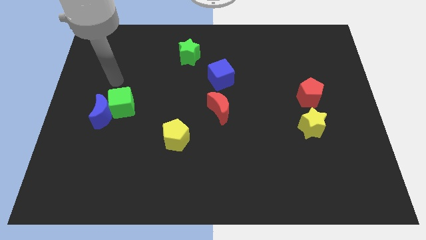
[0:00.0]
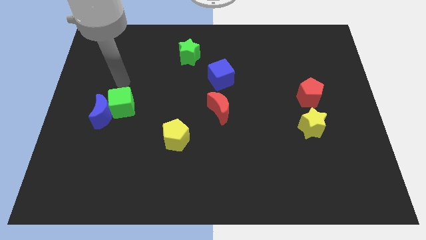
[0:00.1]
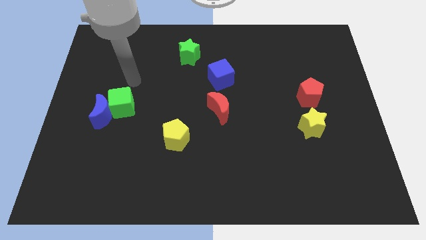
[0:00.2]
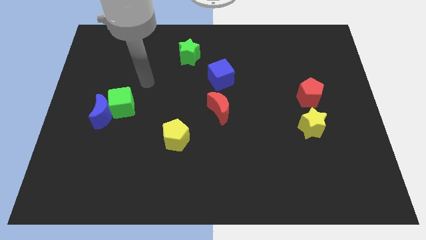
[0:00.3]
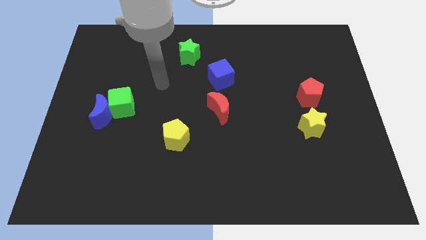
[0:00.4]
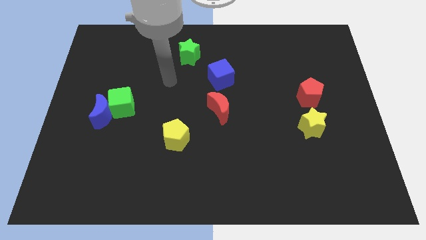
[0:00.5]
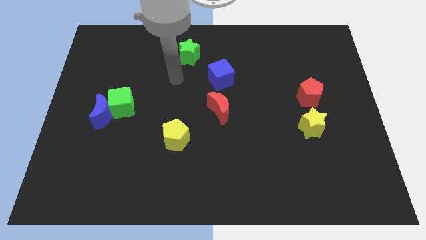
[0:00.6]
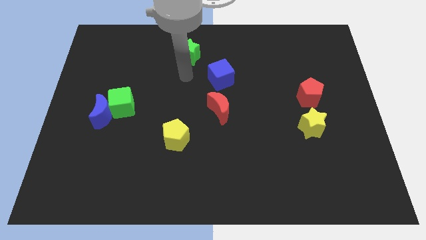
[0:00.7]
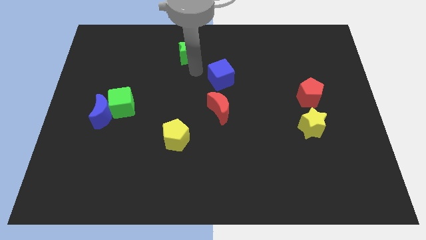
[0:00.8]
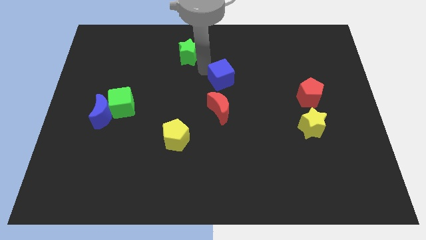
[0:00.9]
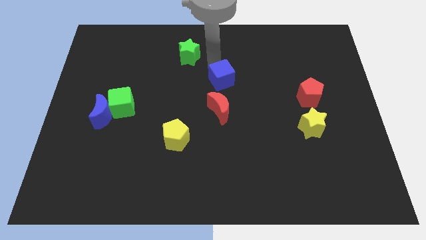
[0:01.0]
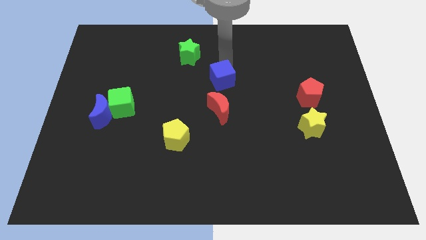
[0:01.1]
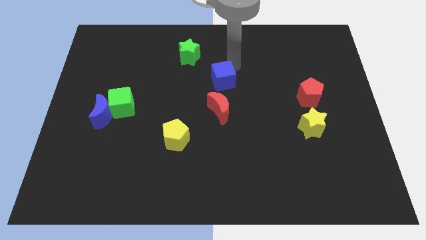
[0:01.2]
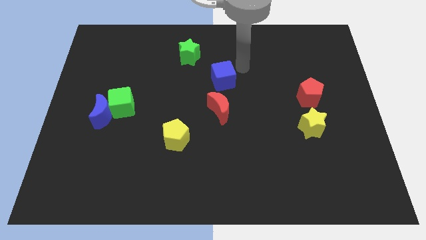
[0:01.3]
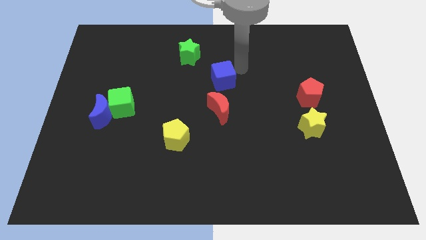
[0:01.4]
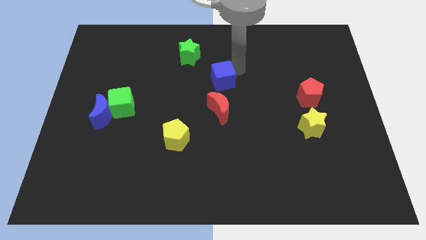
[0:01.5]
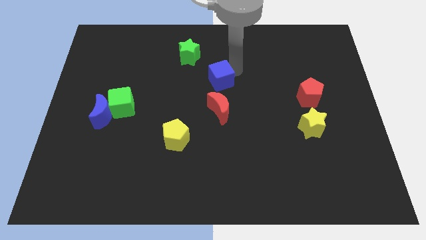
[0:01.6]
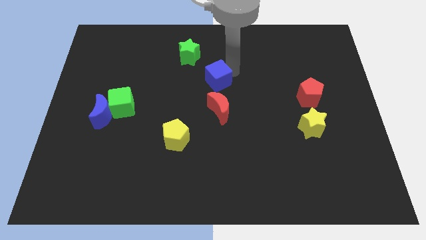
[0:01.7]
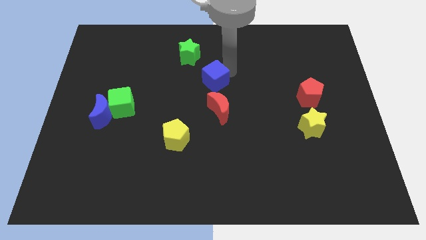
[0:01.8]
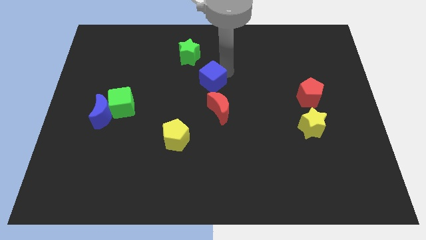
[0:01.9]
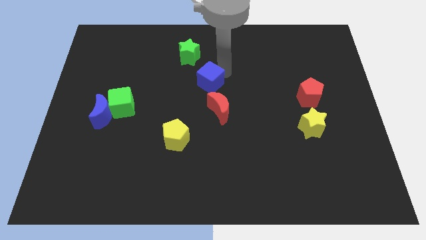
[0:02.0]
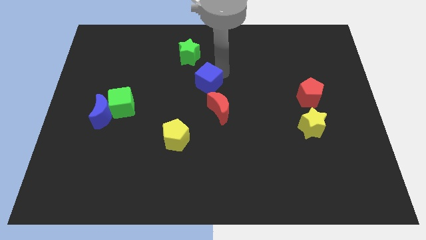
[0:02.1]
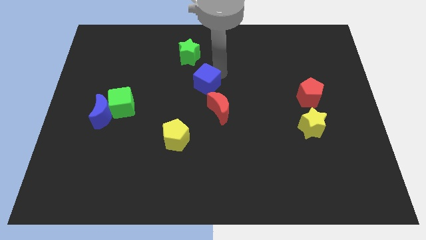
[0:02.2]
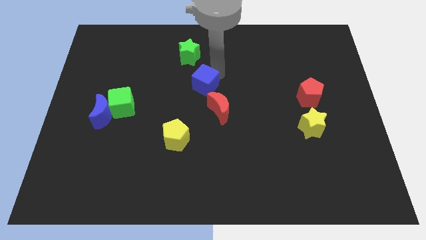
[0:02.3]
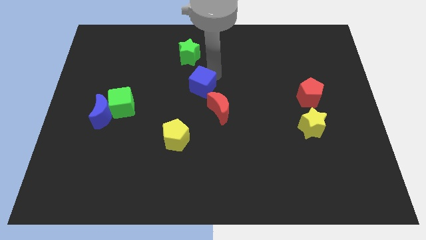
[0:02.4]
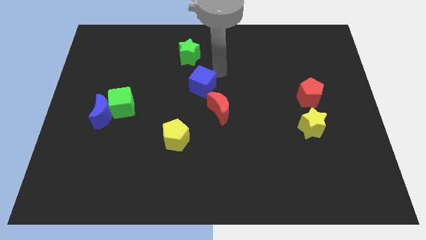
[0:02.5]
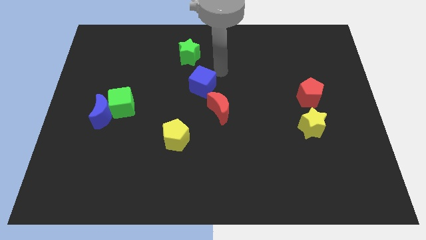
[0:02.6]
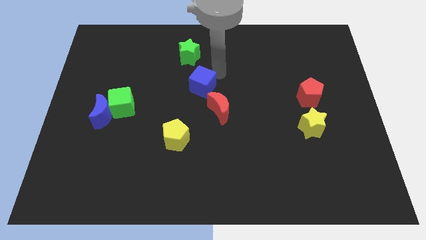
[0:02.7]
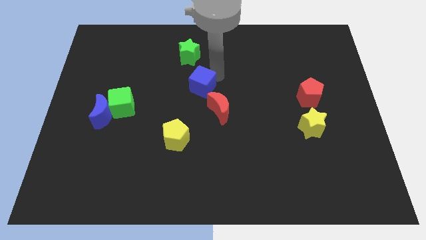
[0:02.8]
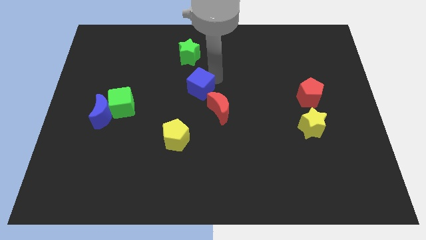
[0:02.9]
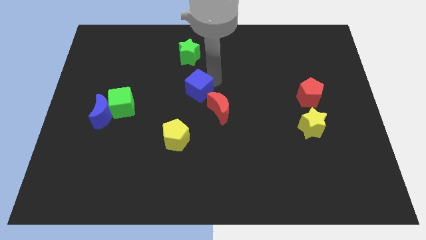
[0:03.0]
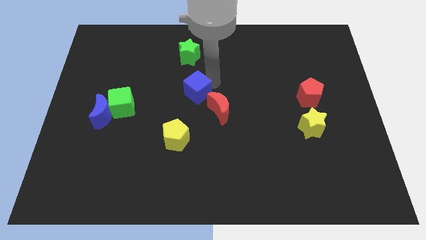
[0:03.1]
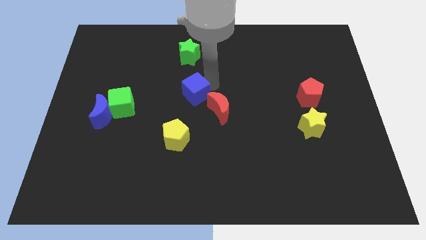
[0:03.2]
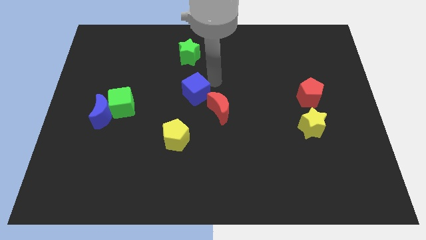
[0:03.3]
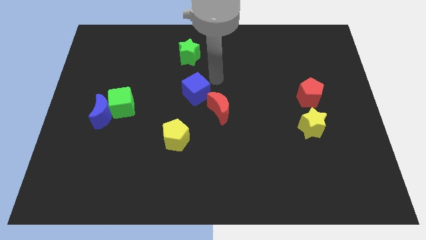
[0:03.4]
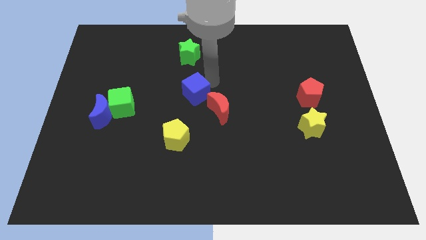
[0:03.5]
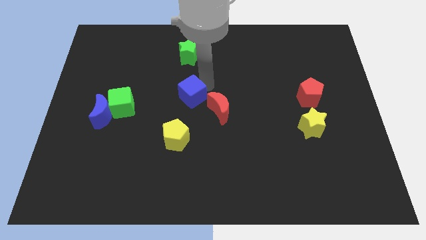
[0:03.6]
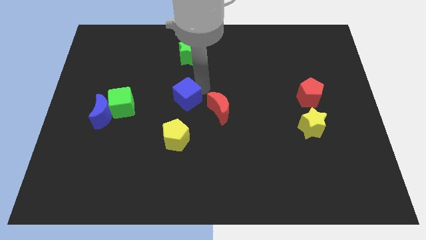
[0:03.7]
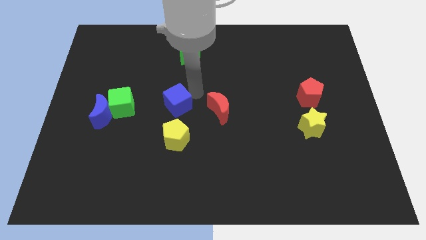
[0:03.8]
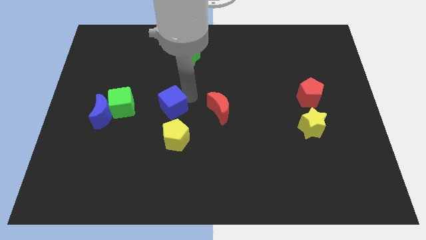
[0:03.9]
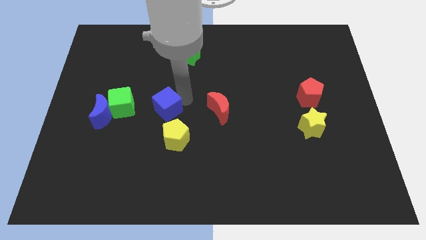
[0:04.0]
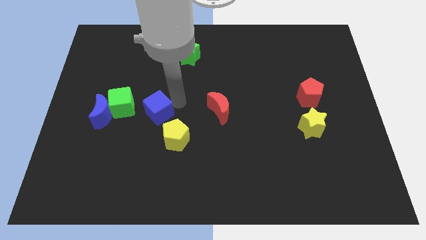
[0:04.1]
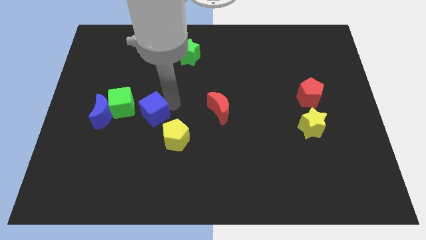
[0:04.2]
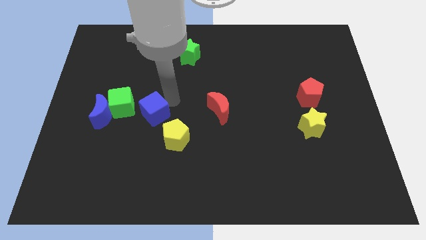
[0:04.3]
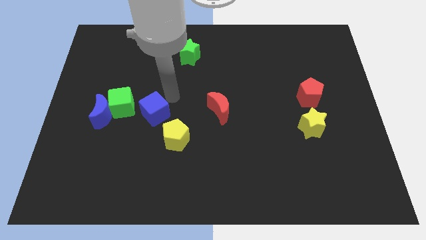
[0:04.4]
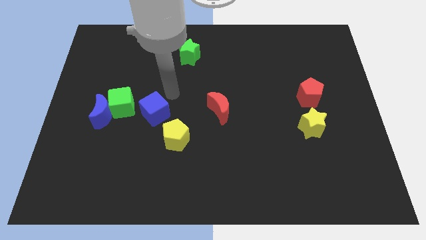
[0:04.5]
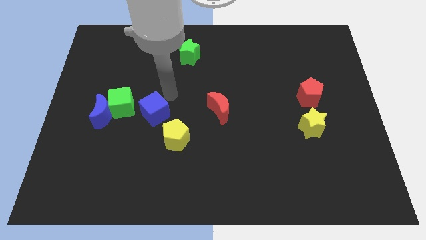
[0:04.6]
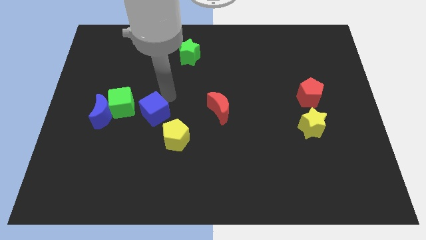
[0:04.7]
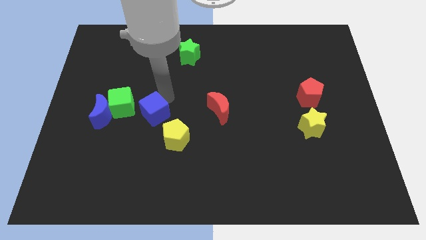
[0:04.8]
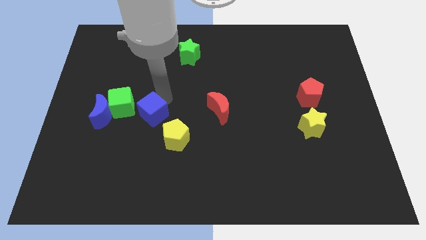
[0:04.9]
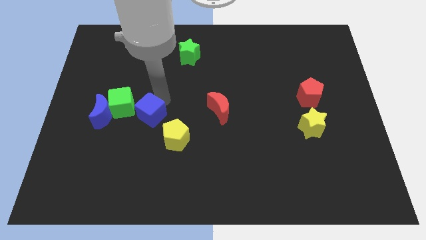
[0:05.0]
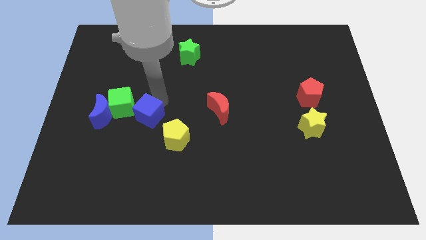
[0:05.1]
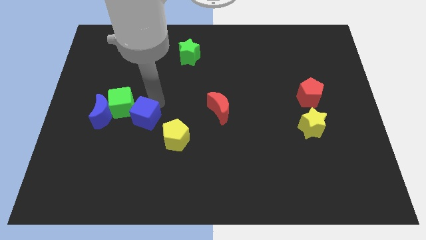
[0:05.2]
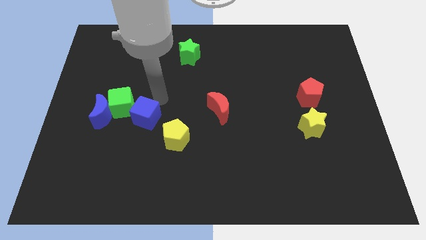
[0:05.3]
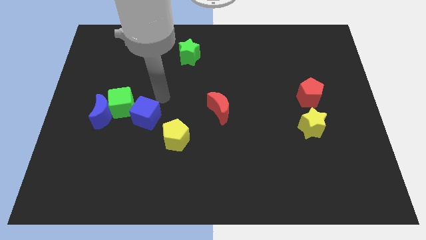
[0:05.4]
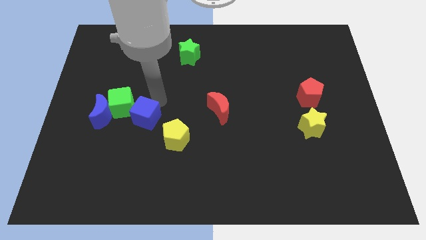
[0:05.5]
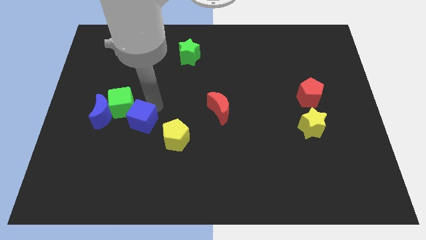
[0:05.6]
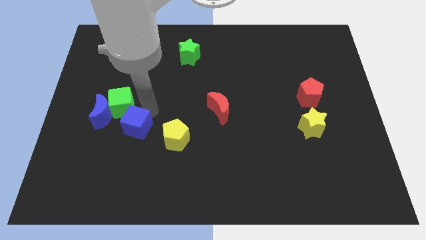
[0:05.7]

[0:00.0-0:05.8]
put the blue cube left of the yellow pentagon
